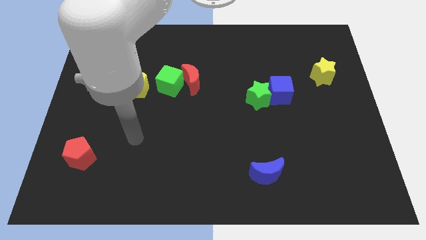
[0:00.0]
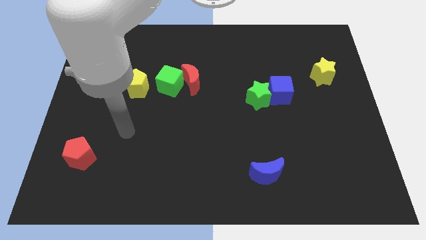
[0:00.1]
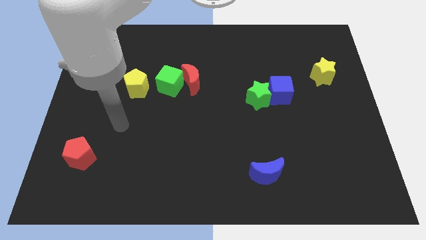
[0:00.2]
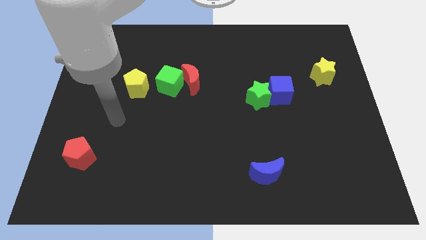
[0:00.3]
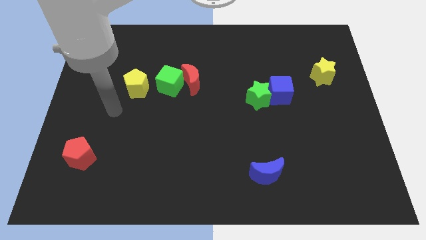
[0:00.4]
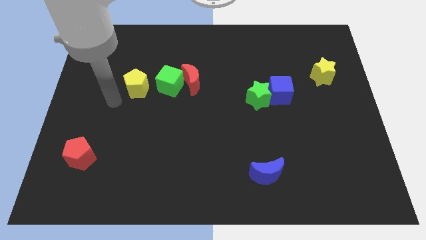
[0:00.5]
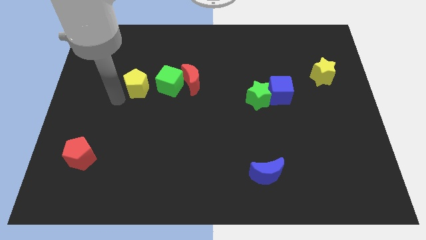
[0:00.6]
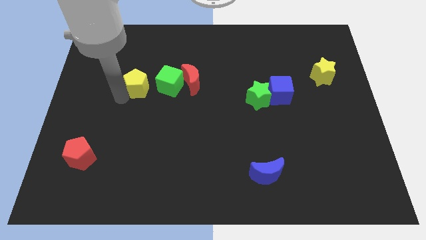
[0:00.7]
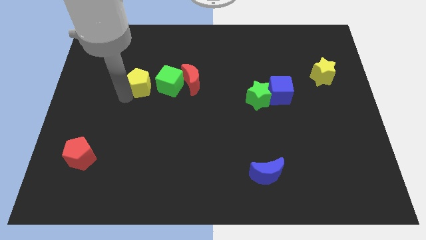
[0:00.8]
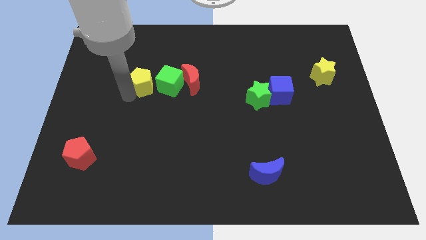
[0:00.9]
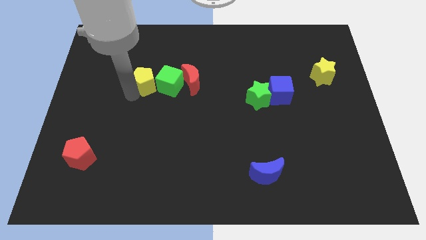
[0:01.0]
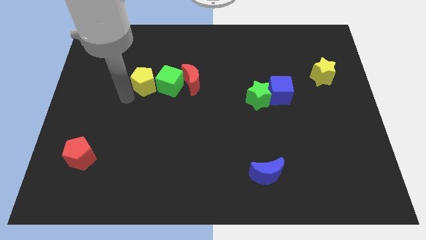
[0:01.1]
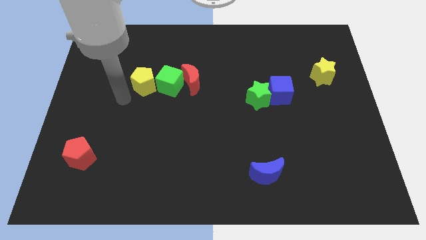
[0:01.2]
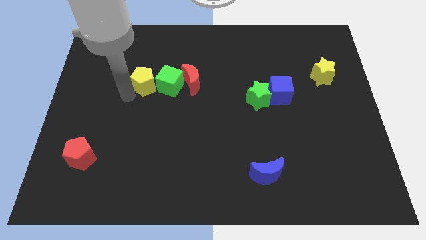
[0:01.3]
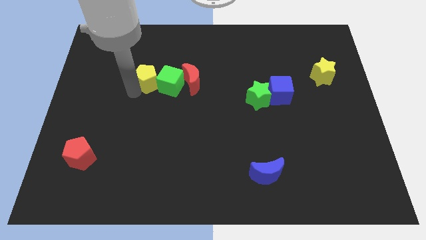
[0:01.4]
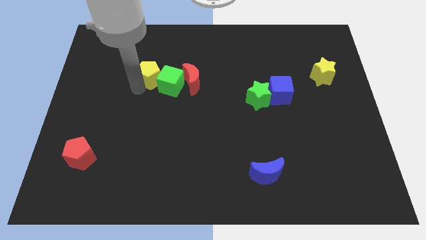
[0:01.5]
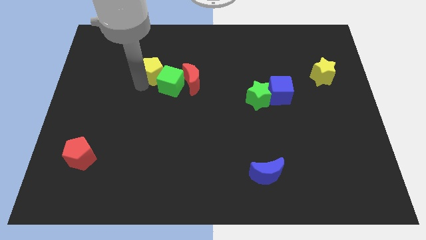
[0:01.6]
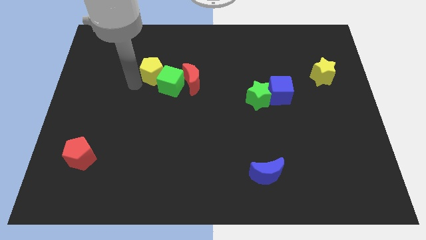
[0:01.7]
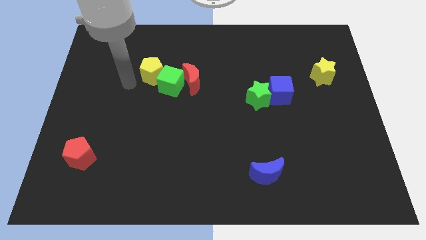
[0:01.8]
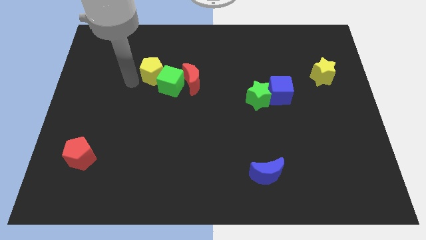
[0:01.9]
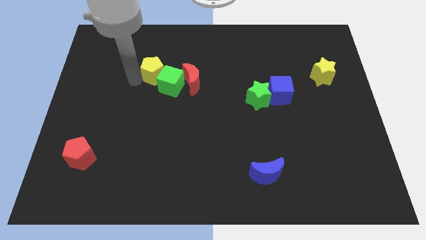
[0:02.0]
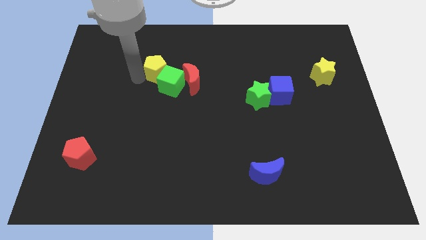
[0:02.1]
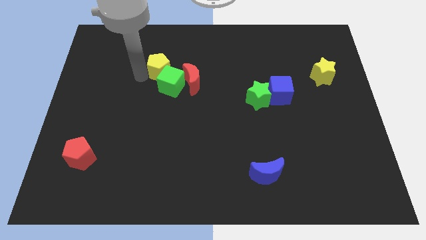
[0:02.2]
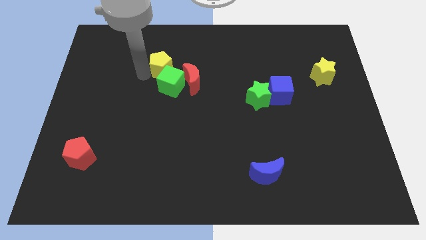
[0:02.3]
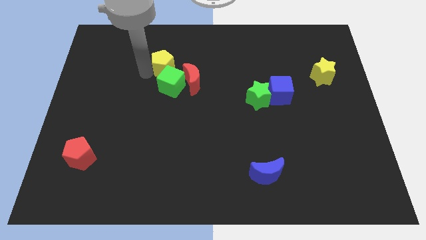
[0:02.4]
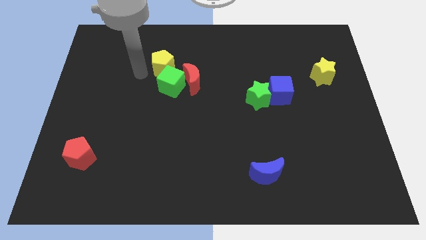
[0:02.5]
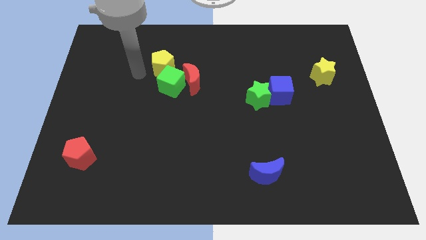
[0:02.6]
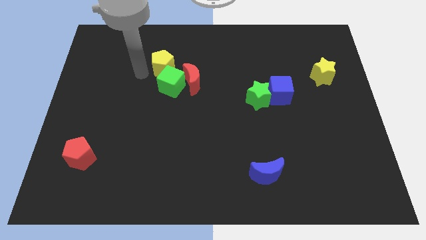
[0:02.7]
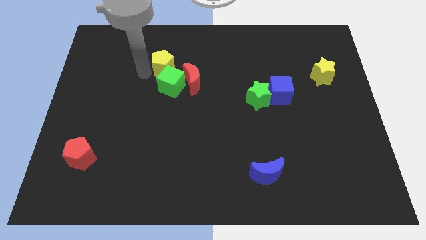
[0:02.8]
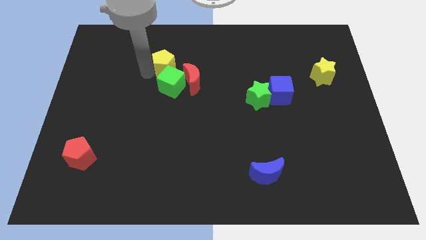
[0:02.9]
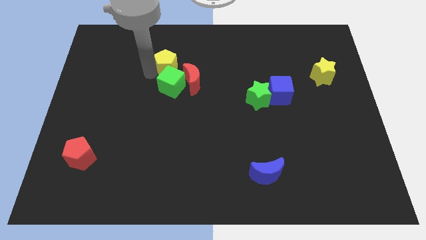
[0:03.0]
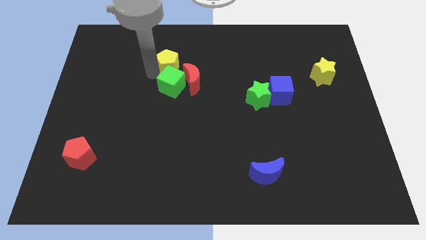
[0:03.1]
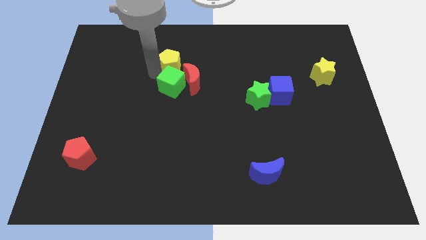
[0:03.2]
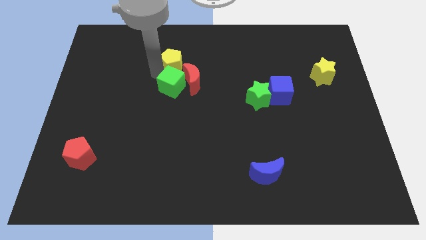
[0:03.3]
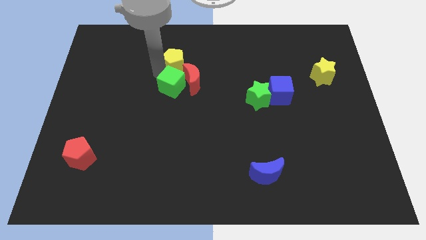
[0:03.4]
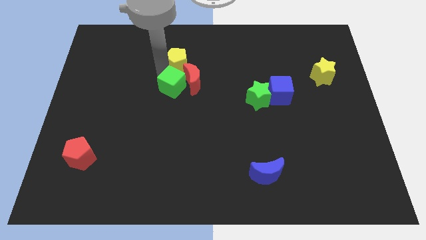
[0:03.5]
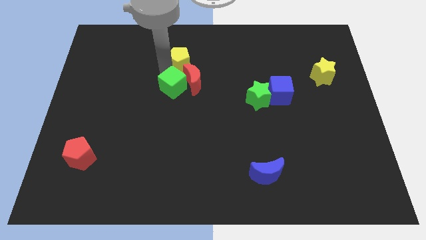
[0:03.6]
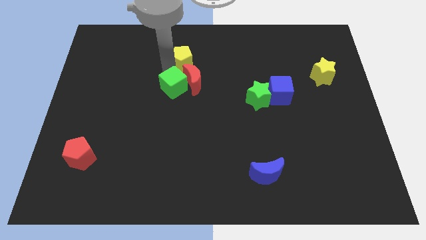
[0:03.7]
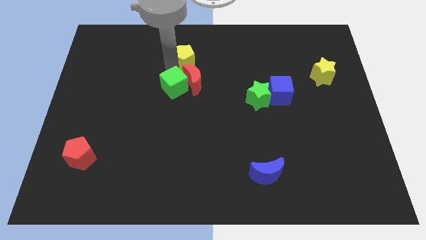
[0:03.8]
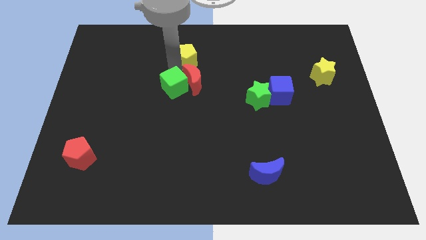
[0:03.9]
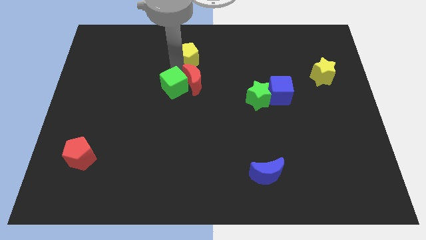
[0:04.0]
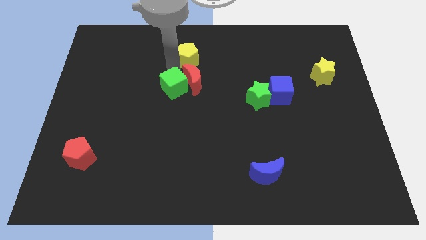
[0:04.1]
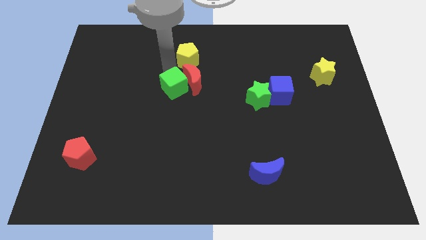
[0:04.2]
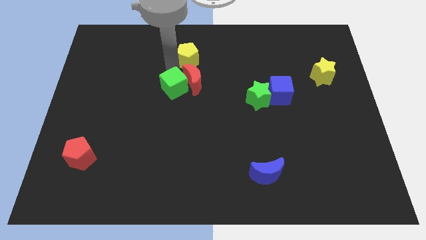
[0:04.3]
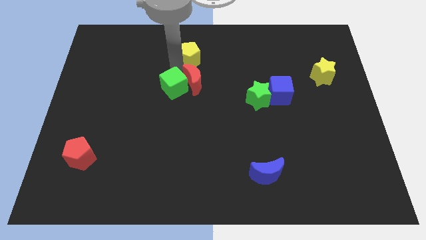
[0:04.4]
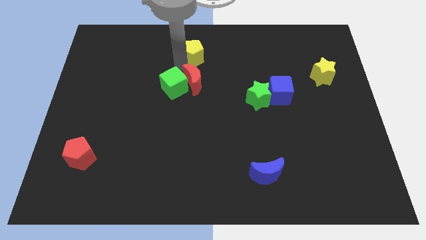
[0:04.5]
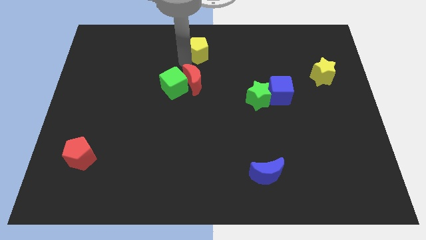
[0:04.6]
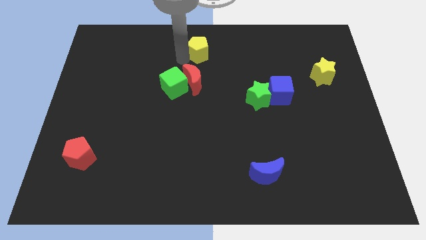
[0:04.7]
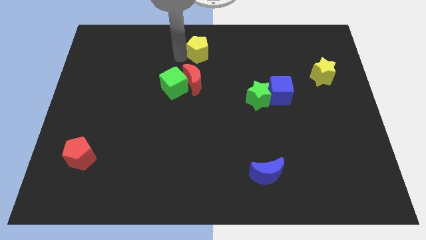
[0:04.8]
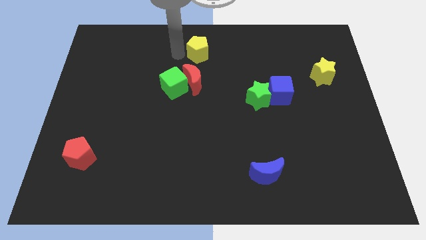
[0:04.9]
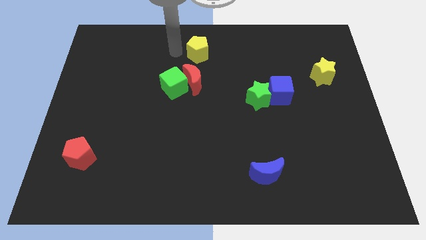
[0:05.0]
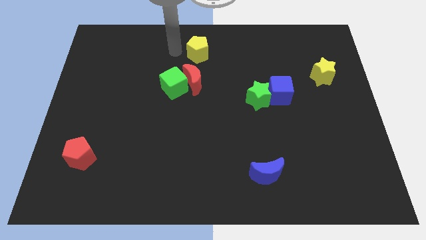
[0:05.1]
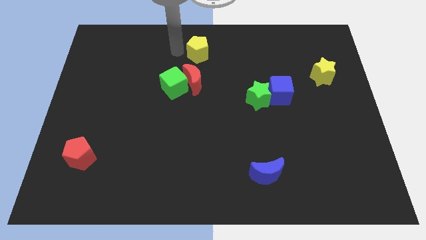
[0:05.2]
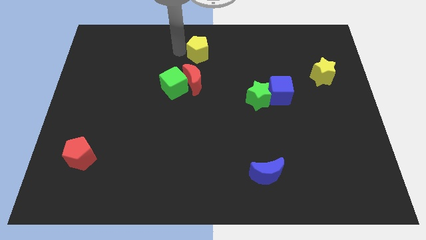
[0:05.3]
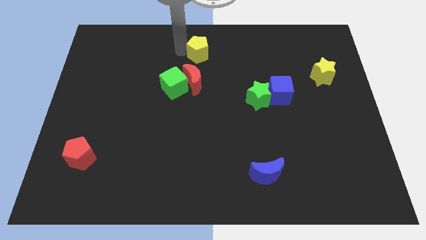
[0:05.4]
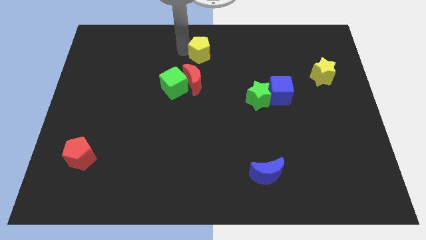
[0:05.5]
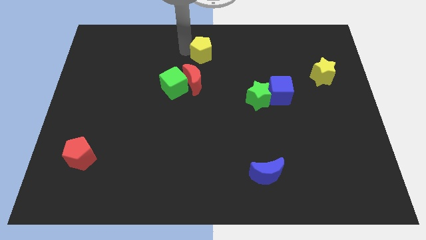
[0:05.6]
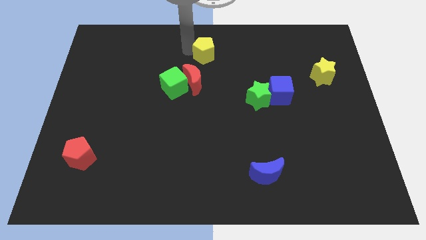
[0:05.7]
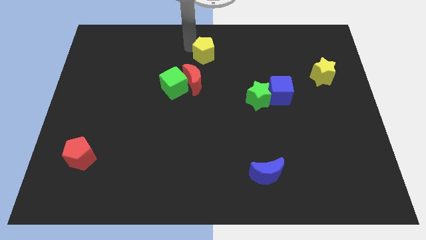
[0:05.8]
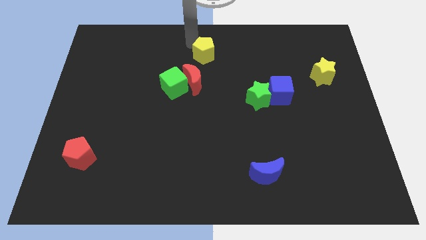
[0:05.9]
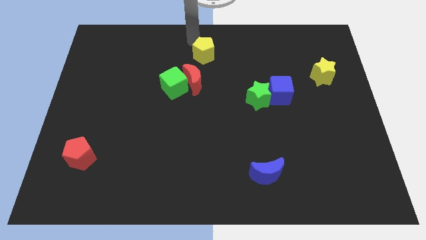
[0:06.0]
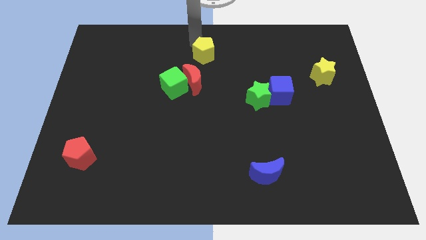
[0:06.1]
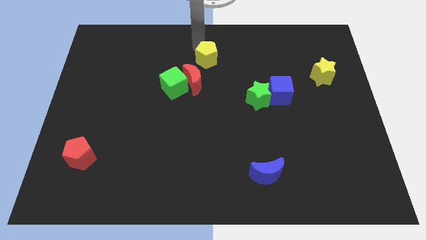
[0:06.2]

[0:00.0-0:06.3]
move the yellow pentagon diagonally up and to the right of the red moon

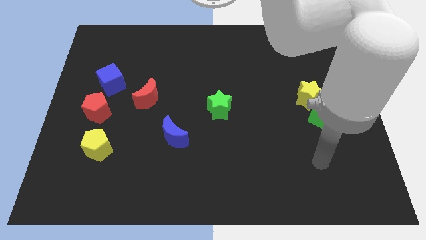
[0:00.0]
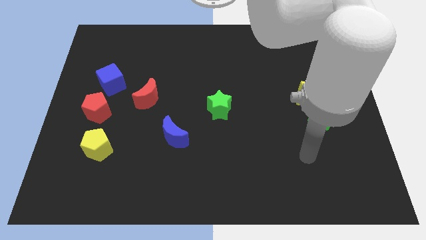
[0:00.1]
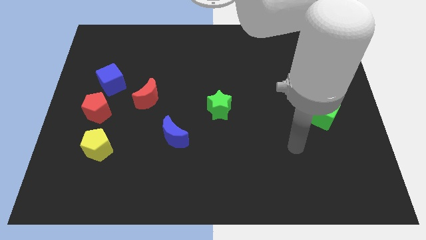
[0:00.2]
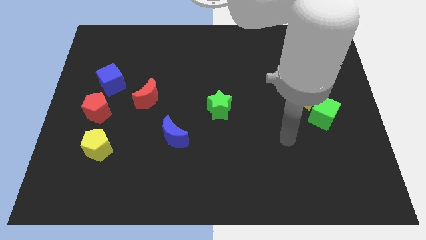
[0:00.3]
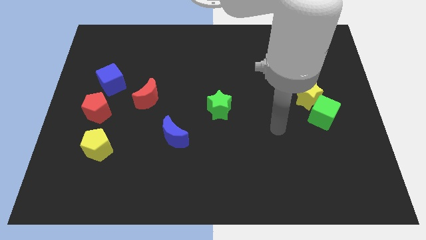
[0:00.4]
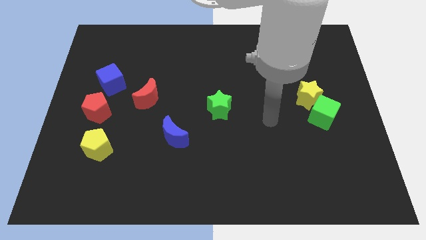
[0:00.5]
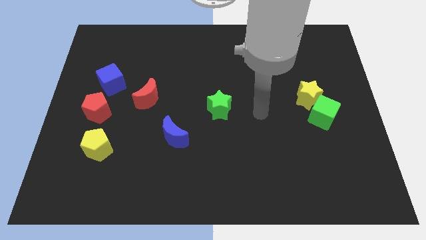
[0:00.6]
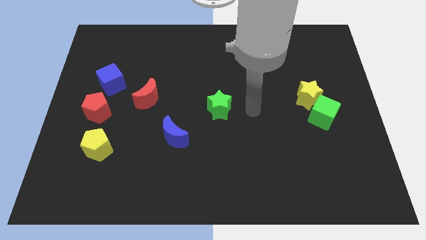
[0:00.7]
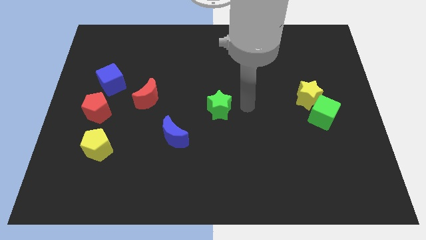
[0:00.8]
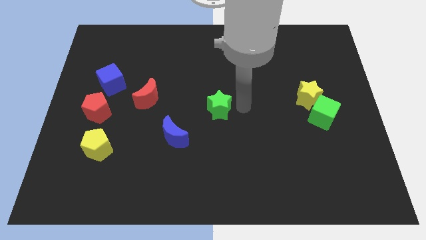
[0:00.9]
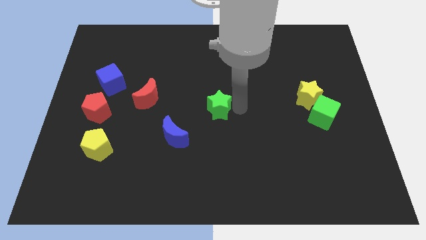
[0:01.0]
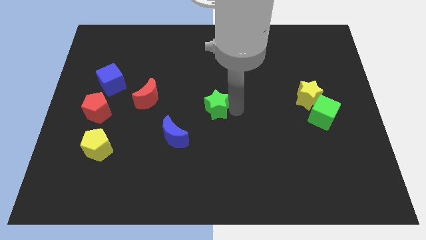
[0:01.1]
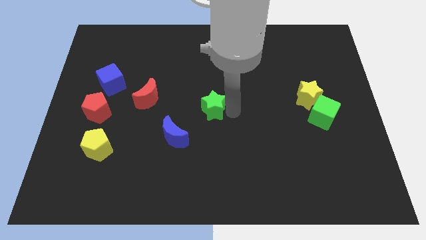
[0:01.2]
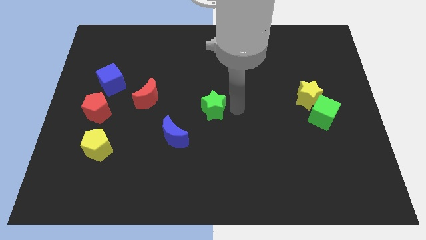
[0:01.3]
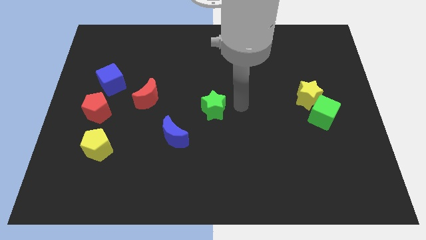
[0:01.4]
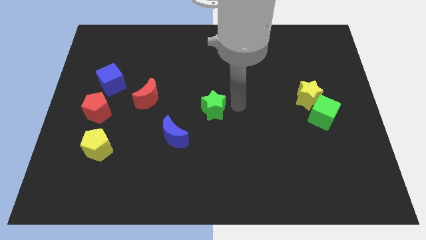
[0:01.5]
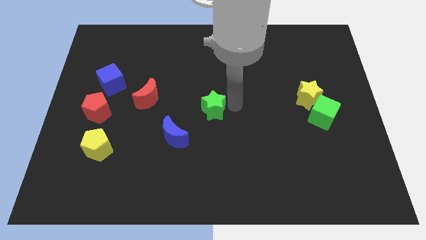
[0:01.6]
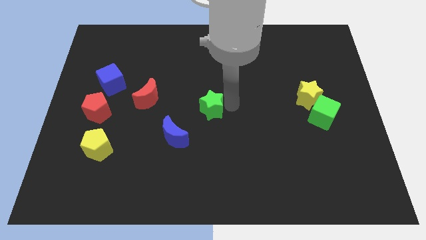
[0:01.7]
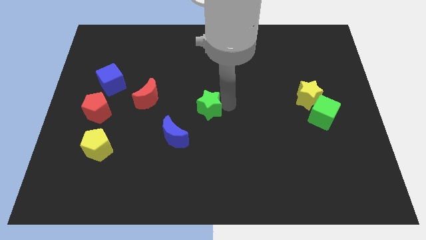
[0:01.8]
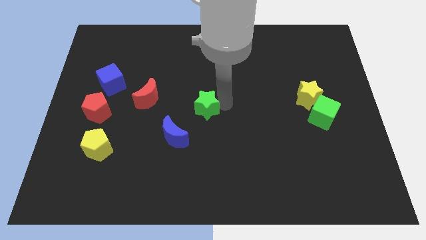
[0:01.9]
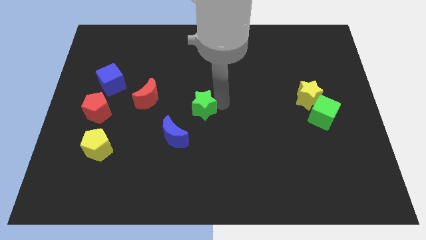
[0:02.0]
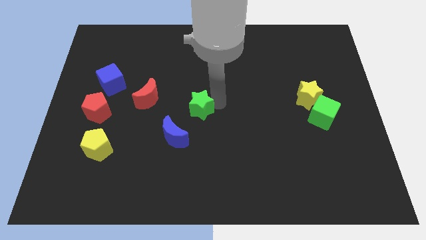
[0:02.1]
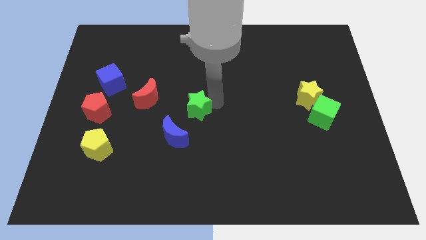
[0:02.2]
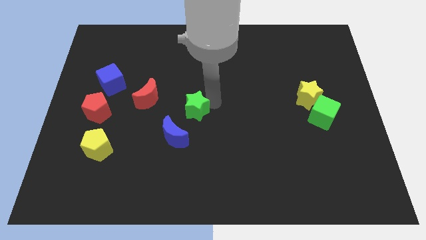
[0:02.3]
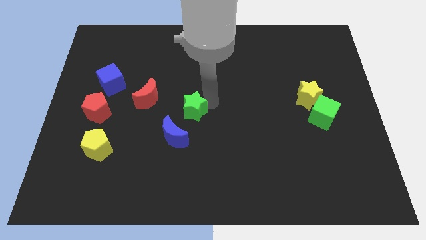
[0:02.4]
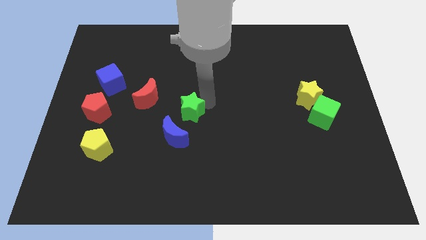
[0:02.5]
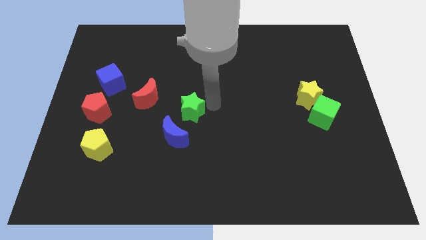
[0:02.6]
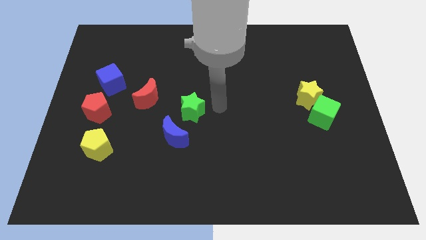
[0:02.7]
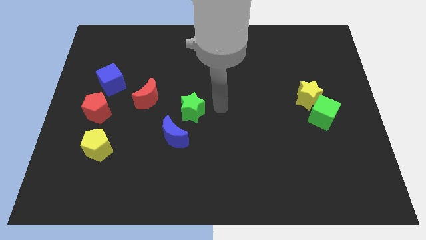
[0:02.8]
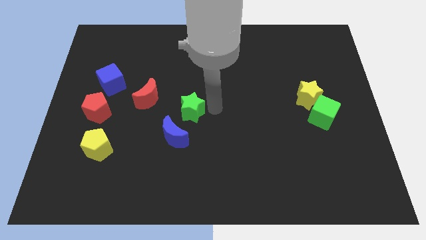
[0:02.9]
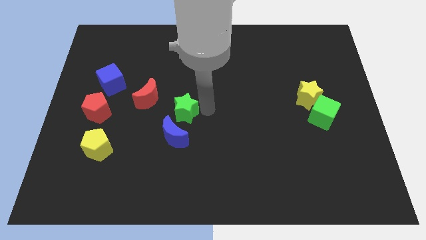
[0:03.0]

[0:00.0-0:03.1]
put the green star to the bottom right of the red moon
